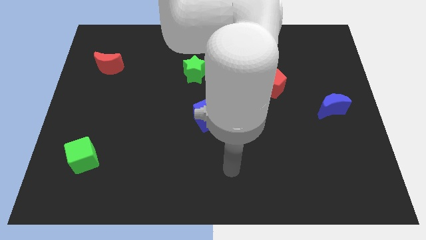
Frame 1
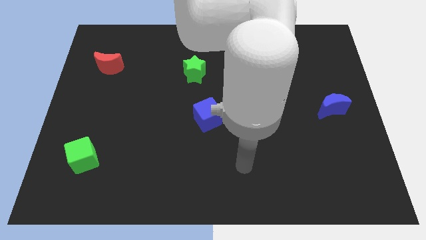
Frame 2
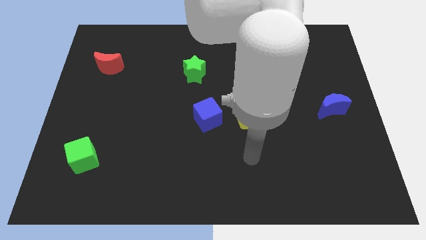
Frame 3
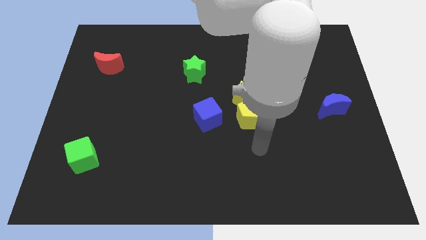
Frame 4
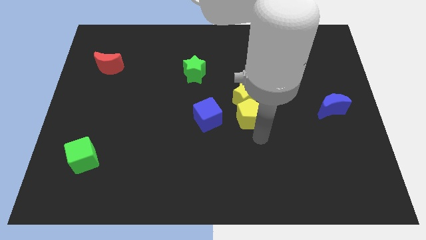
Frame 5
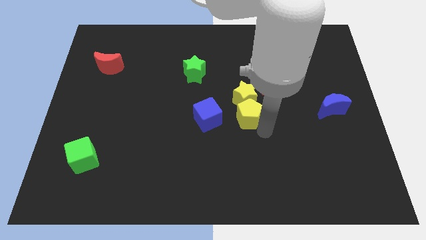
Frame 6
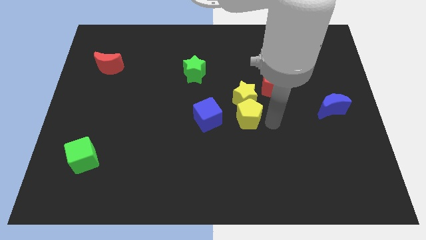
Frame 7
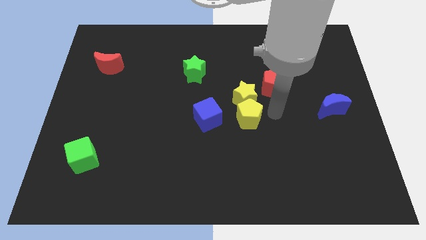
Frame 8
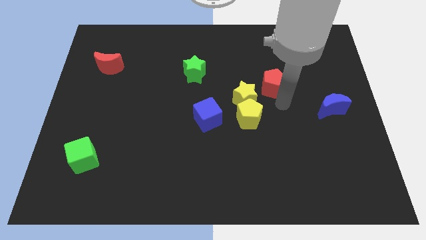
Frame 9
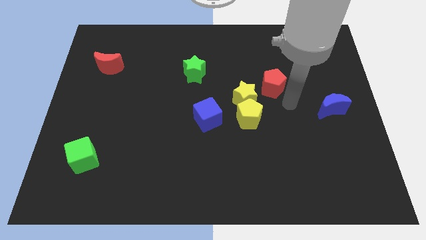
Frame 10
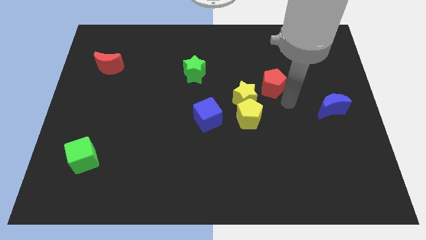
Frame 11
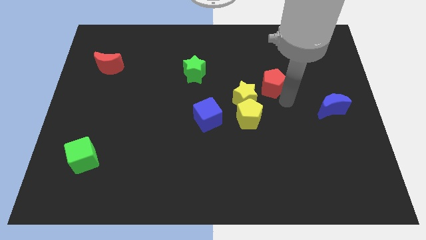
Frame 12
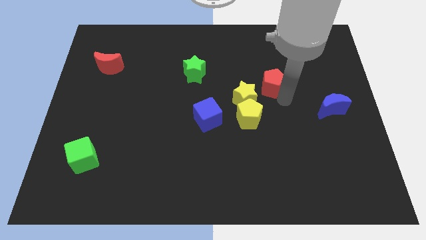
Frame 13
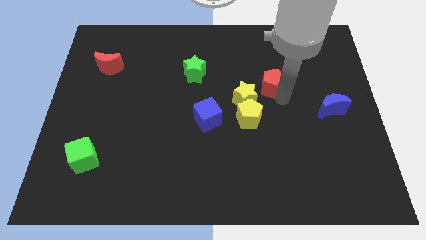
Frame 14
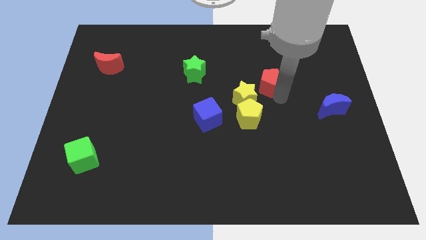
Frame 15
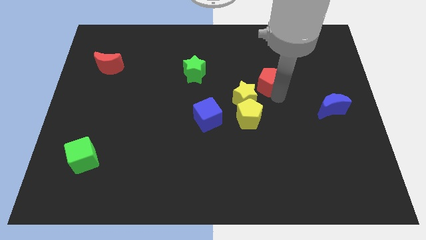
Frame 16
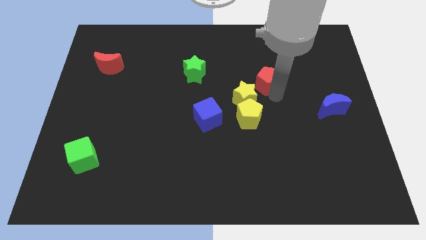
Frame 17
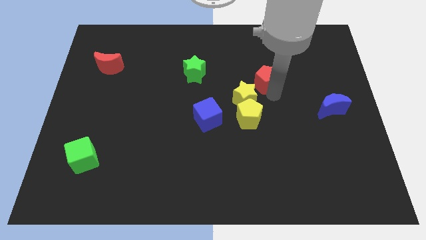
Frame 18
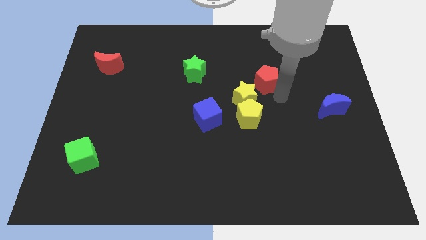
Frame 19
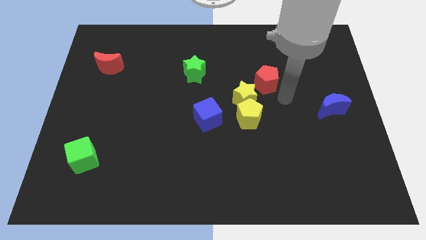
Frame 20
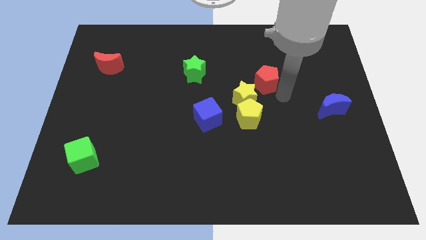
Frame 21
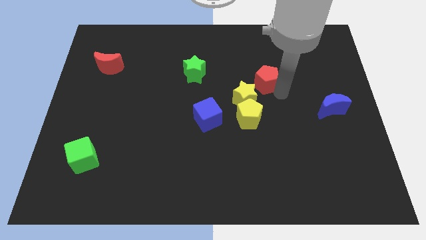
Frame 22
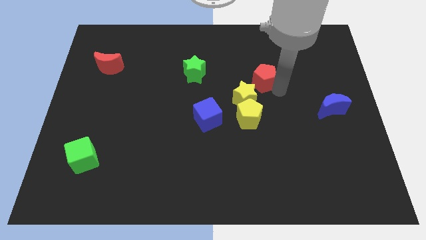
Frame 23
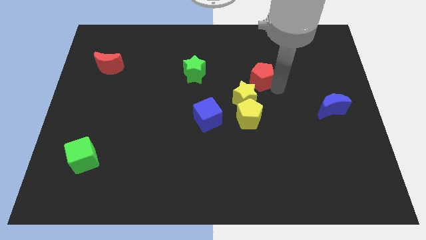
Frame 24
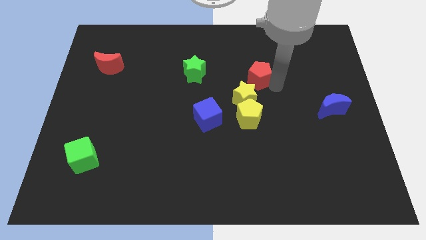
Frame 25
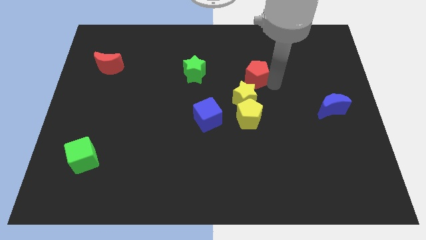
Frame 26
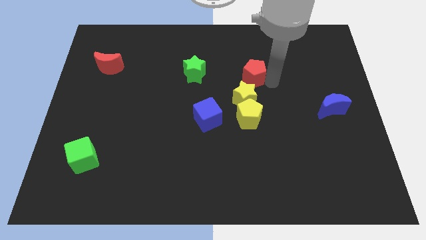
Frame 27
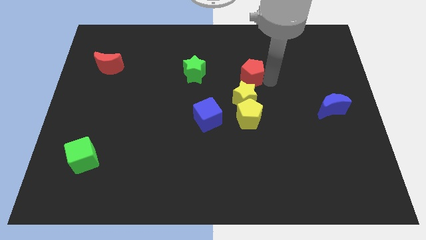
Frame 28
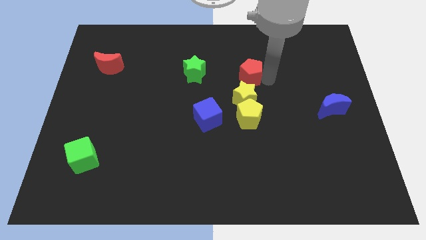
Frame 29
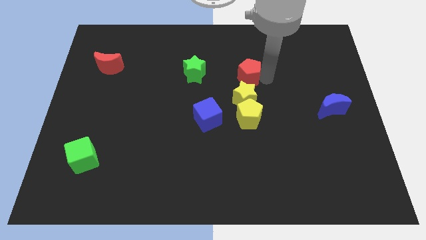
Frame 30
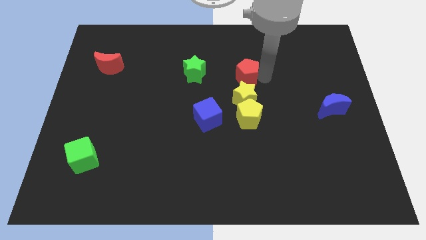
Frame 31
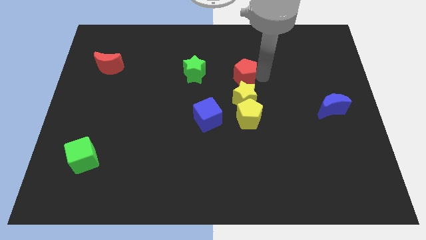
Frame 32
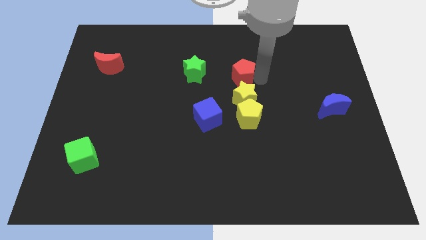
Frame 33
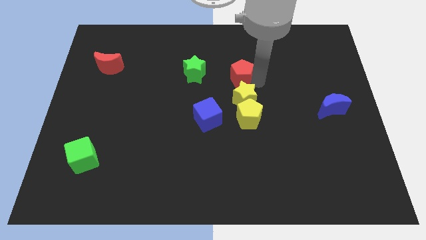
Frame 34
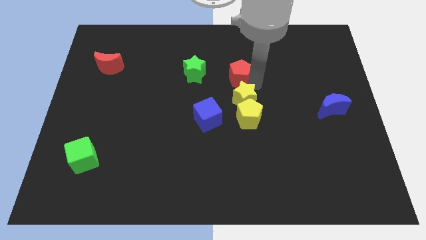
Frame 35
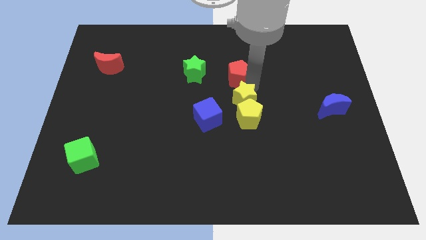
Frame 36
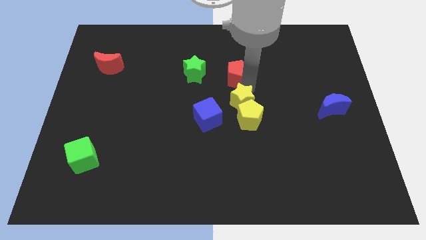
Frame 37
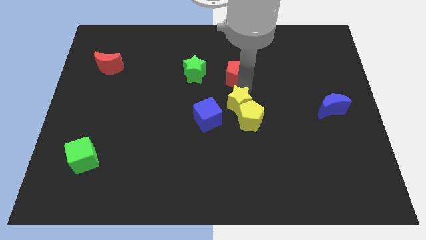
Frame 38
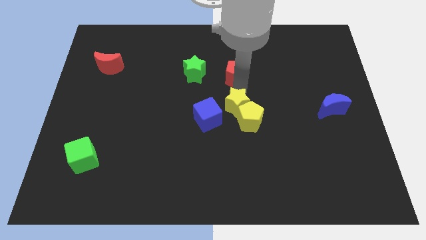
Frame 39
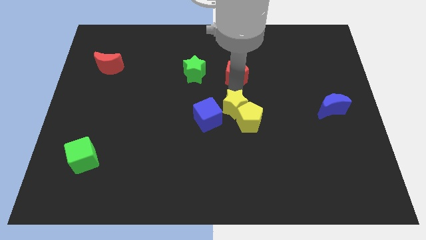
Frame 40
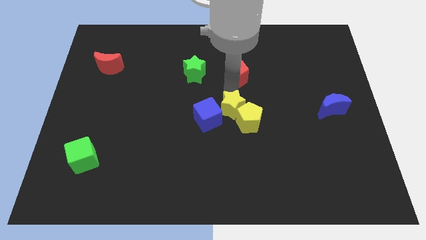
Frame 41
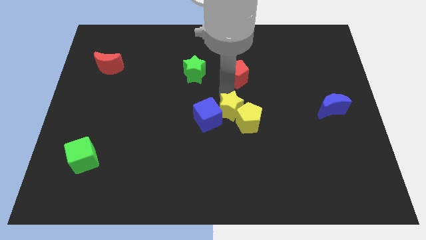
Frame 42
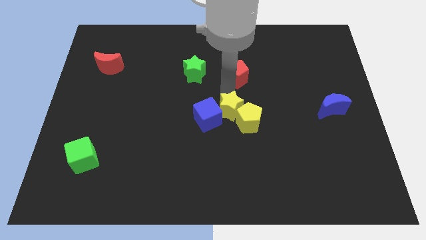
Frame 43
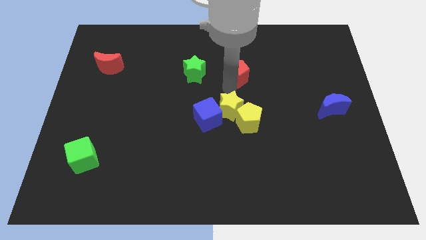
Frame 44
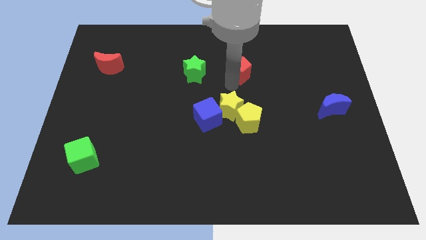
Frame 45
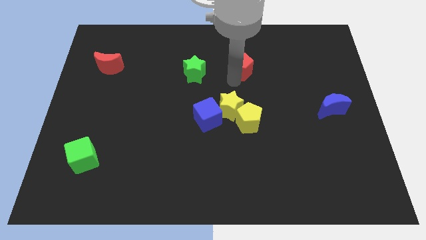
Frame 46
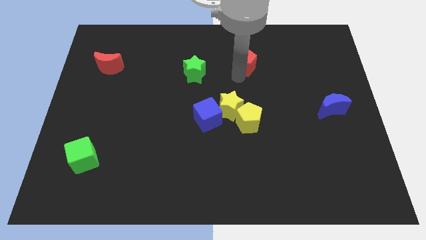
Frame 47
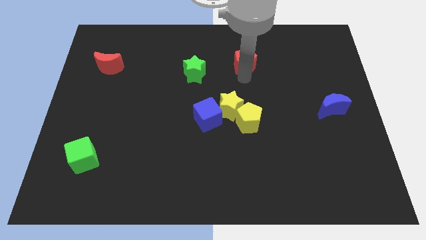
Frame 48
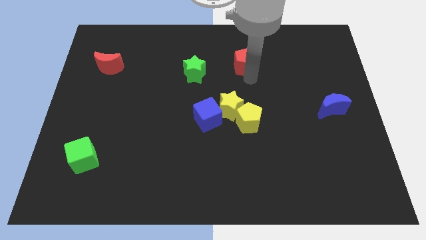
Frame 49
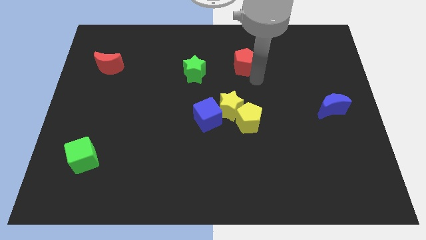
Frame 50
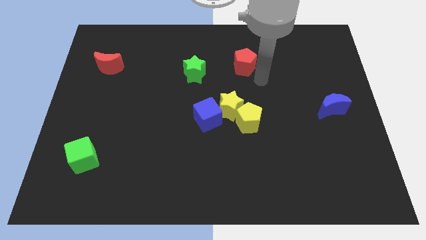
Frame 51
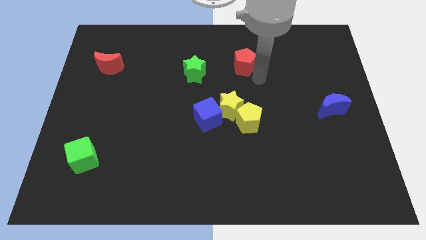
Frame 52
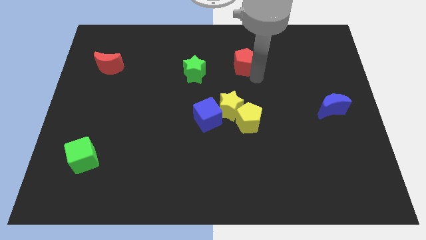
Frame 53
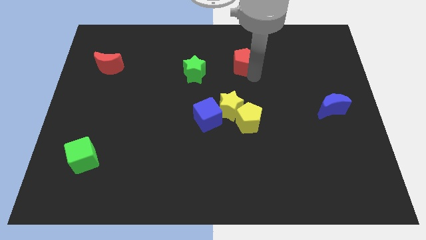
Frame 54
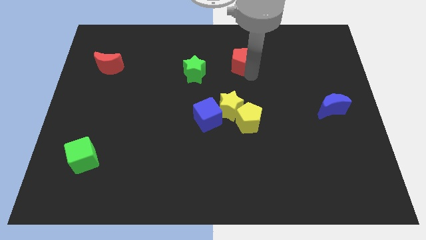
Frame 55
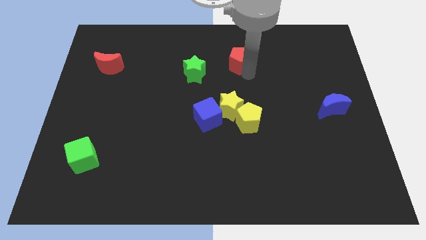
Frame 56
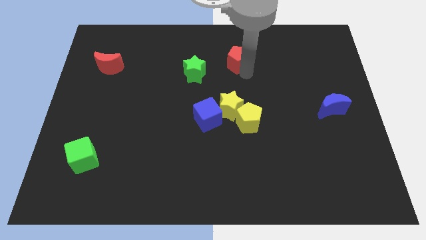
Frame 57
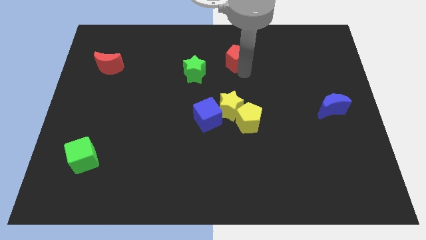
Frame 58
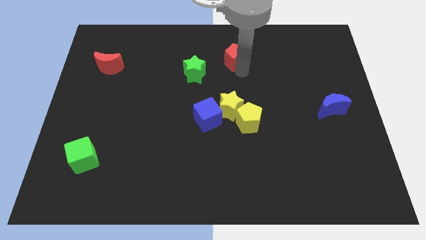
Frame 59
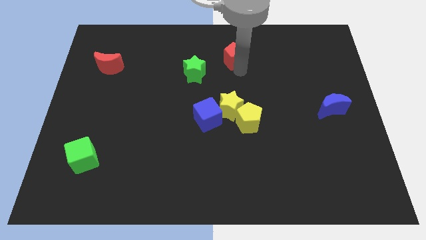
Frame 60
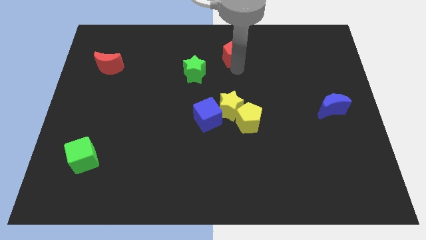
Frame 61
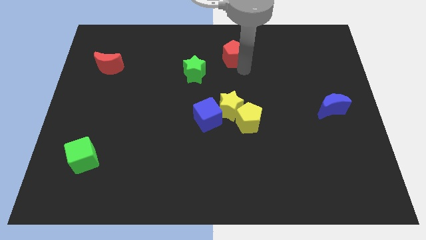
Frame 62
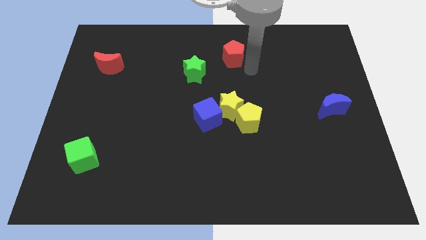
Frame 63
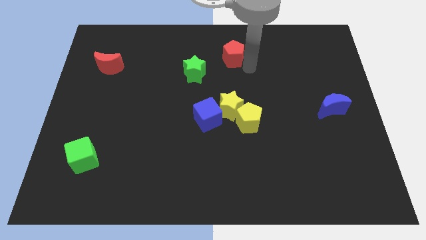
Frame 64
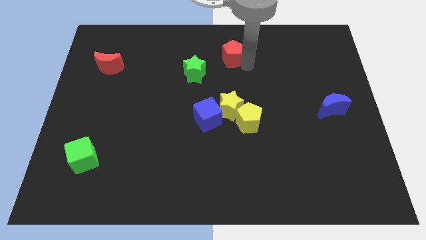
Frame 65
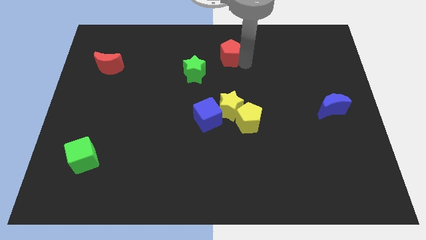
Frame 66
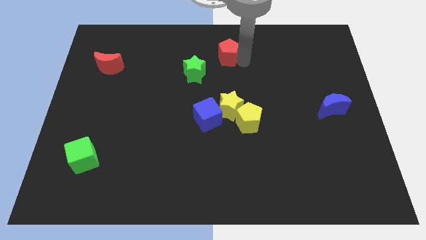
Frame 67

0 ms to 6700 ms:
move the red pentagon to the top side

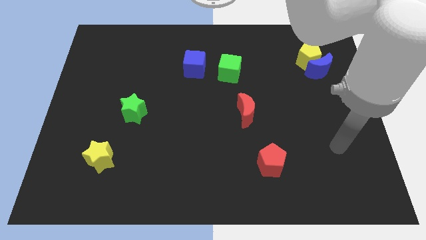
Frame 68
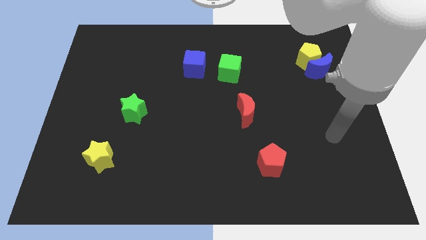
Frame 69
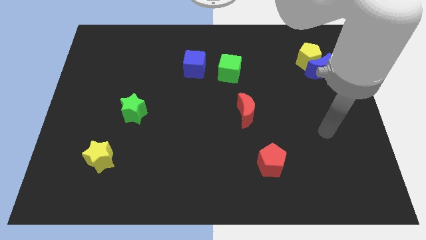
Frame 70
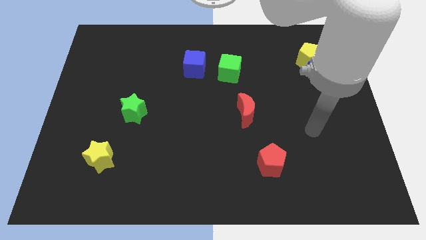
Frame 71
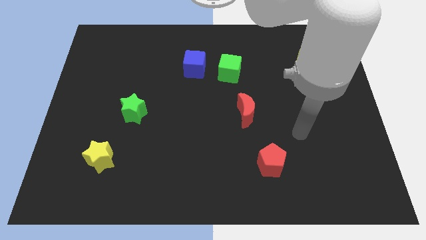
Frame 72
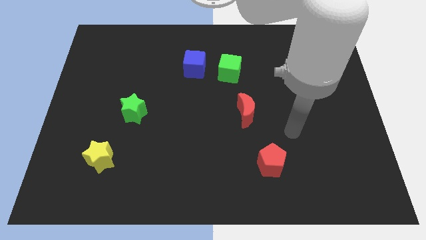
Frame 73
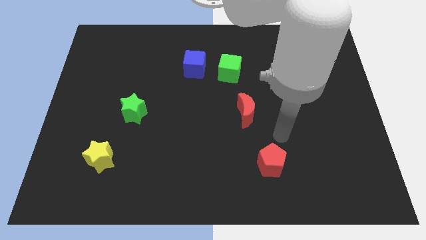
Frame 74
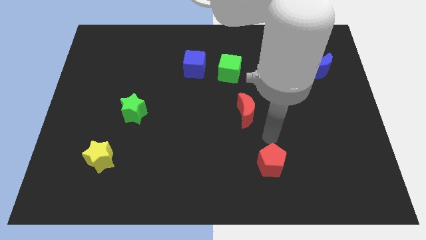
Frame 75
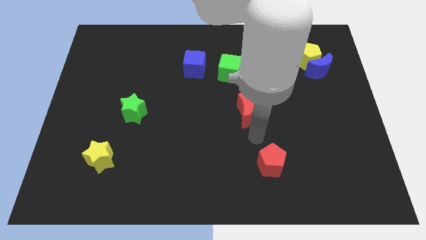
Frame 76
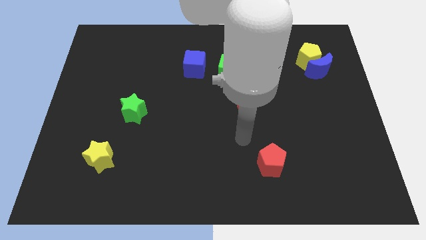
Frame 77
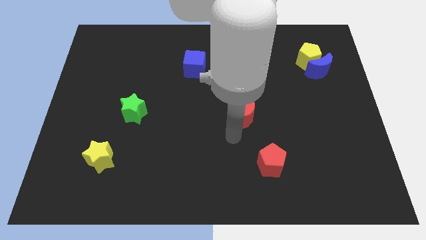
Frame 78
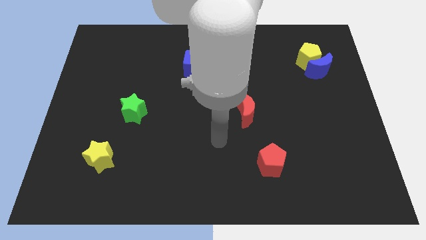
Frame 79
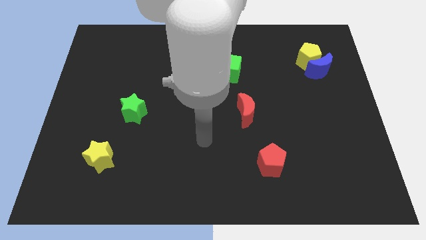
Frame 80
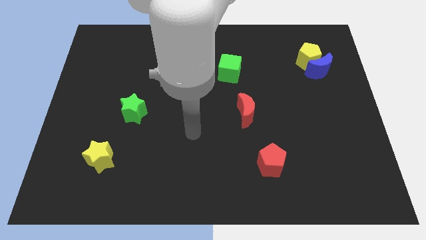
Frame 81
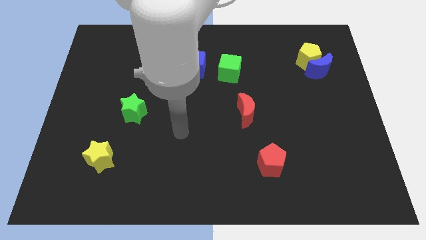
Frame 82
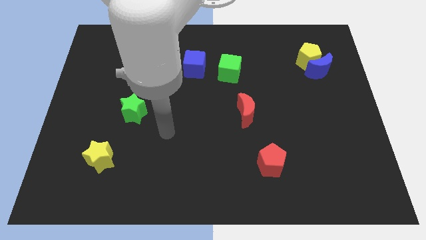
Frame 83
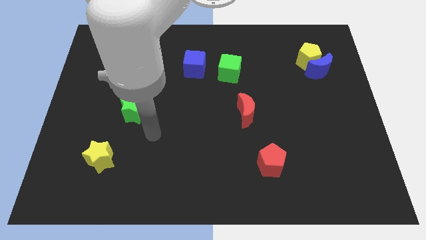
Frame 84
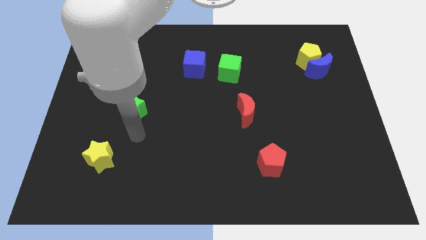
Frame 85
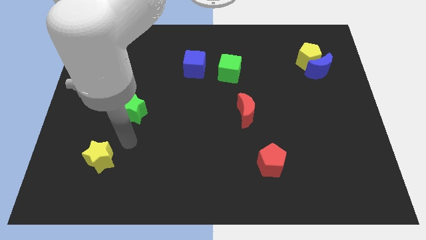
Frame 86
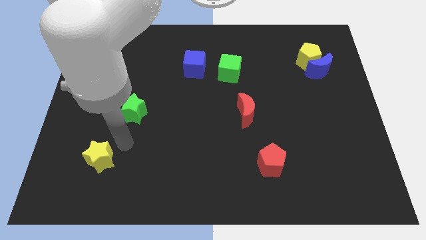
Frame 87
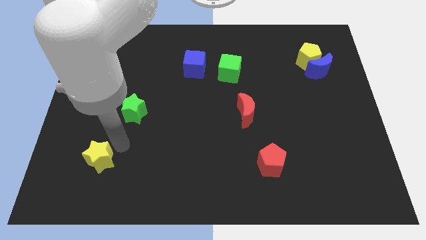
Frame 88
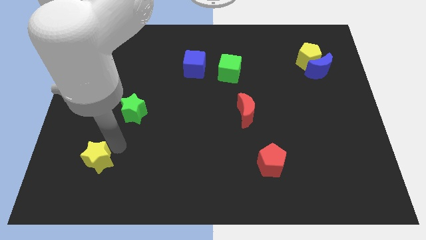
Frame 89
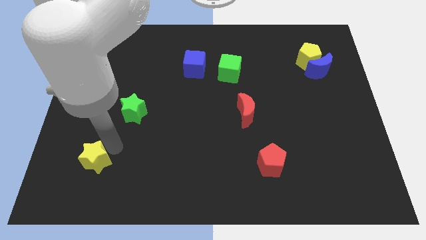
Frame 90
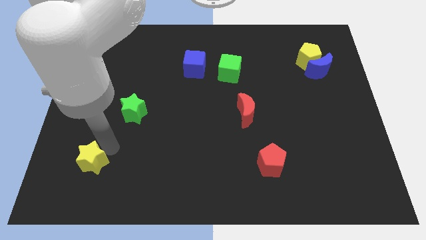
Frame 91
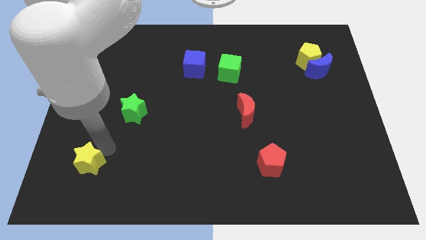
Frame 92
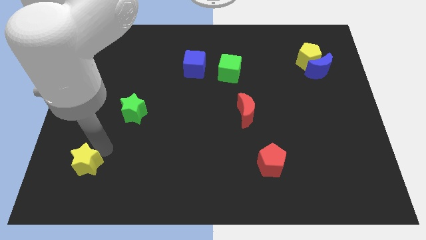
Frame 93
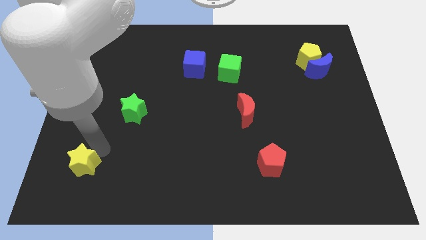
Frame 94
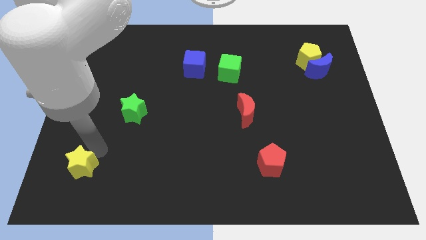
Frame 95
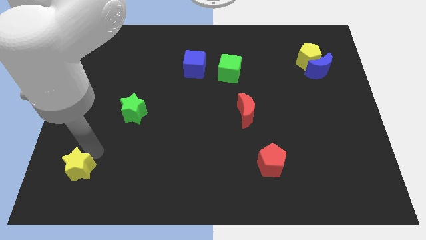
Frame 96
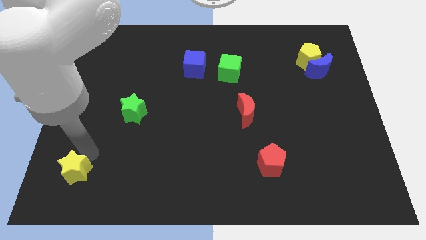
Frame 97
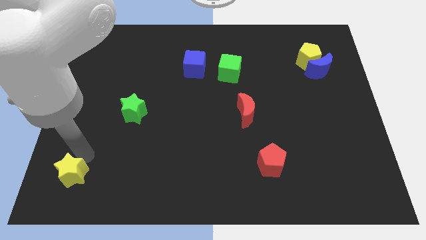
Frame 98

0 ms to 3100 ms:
push the yellow star to the bottom left corner
